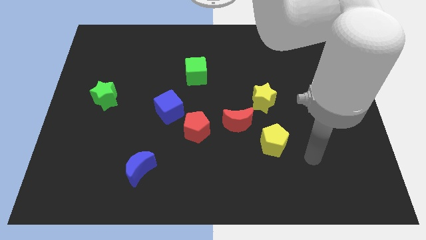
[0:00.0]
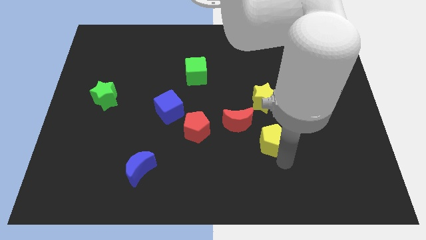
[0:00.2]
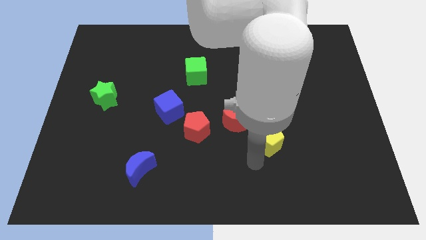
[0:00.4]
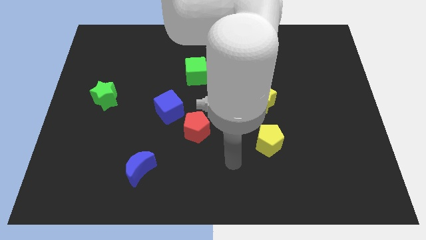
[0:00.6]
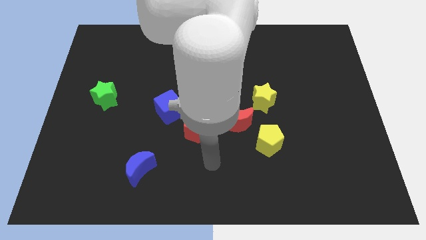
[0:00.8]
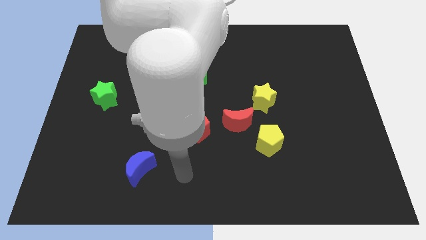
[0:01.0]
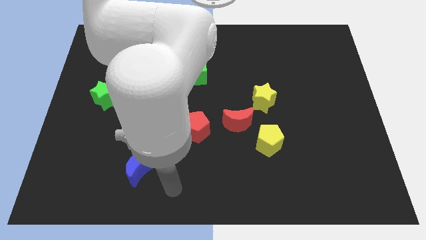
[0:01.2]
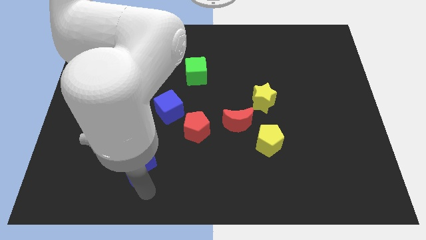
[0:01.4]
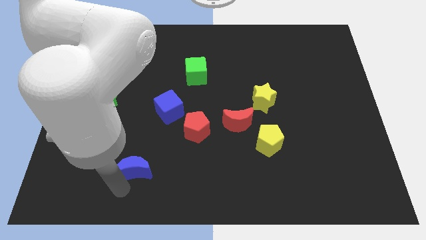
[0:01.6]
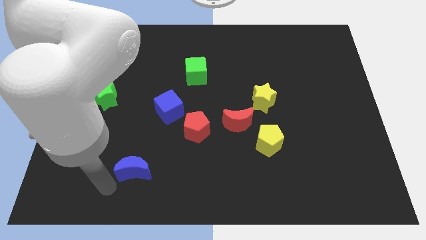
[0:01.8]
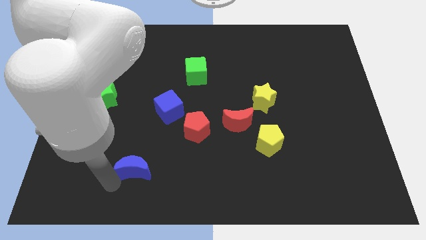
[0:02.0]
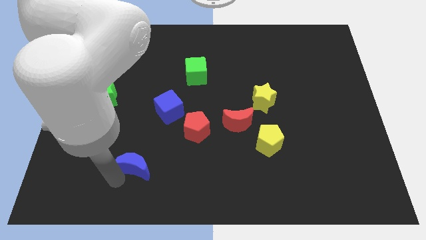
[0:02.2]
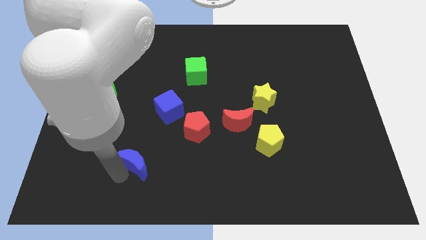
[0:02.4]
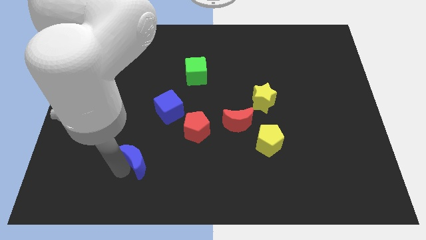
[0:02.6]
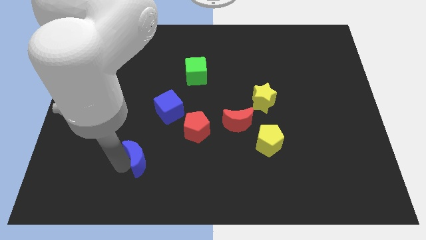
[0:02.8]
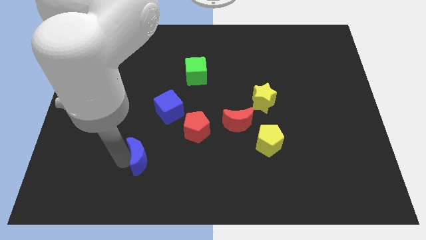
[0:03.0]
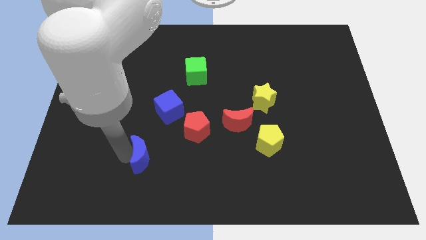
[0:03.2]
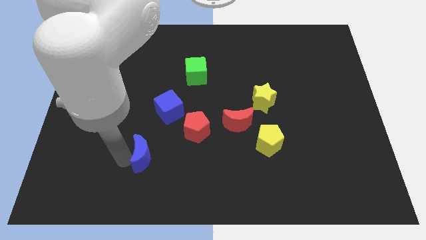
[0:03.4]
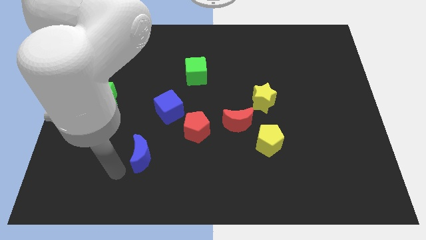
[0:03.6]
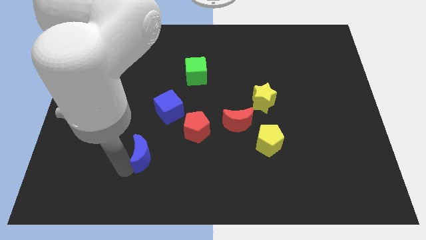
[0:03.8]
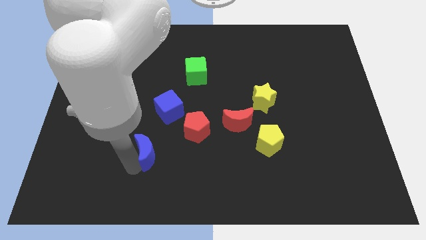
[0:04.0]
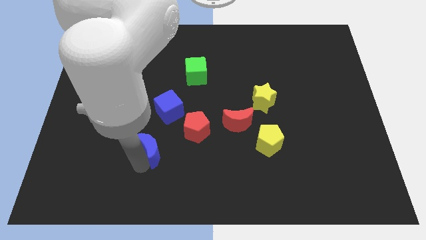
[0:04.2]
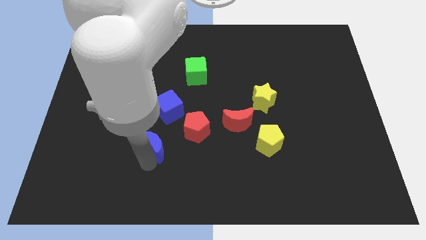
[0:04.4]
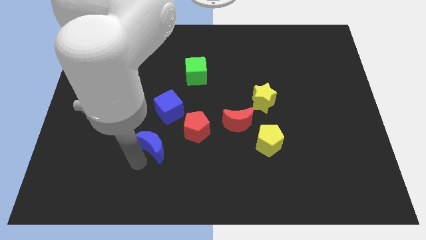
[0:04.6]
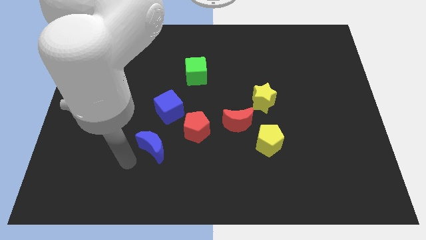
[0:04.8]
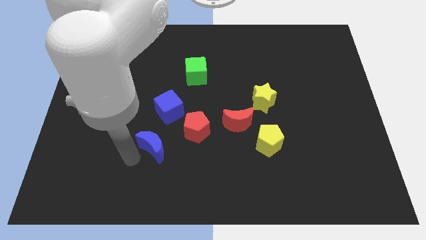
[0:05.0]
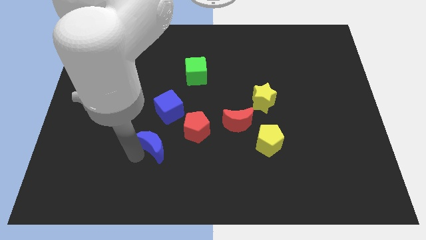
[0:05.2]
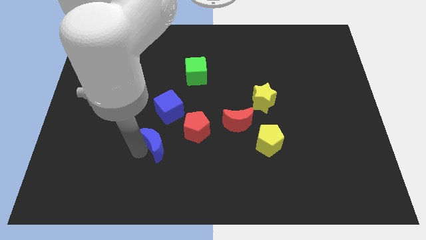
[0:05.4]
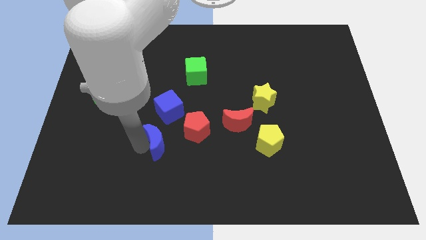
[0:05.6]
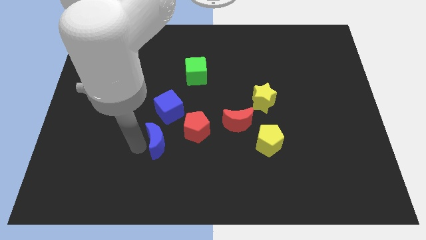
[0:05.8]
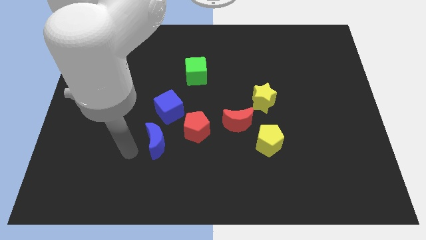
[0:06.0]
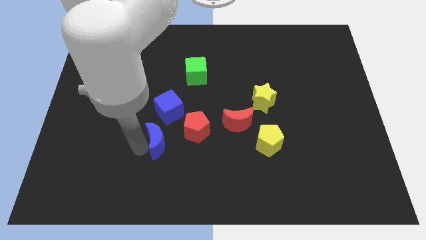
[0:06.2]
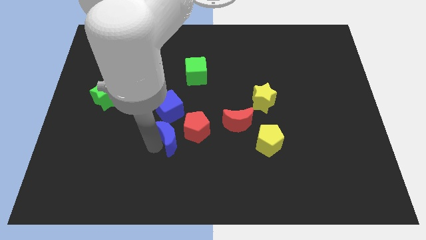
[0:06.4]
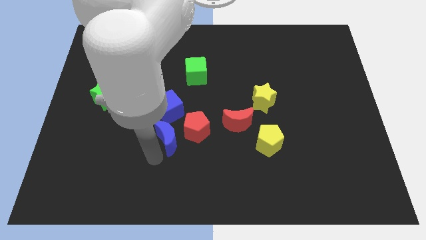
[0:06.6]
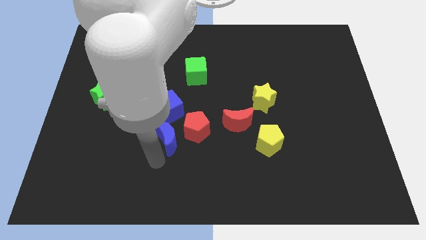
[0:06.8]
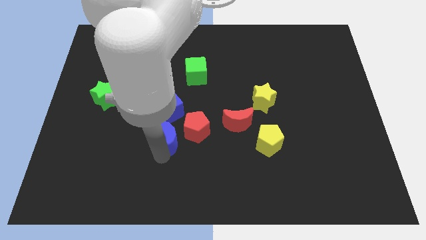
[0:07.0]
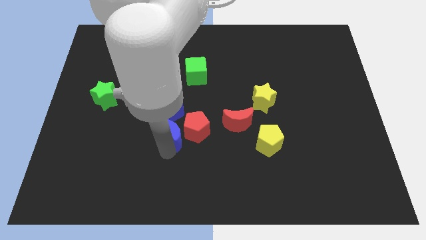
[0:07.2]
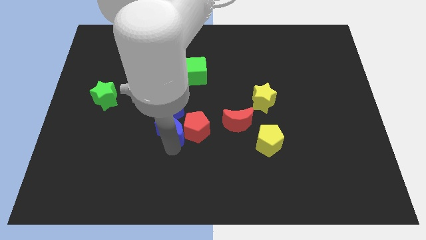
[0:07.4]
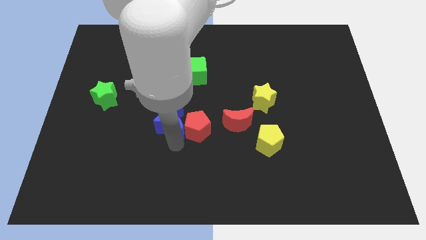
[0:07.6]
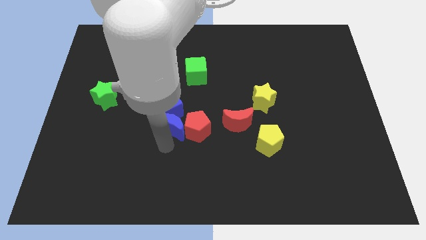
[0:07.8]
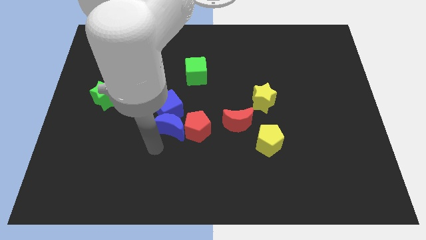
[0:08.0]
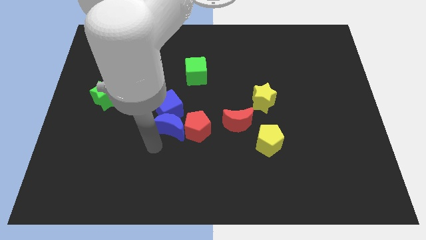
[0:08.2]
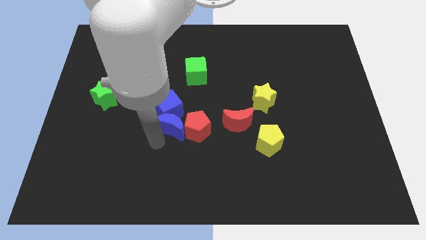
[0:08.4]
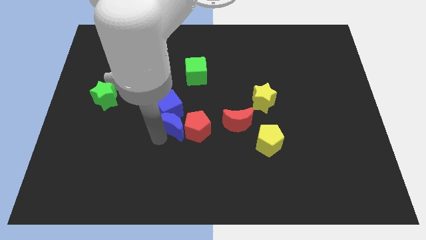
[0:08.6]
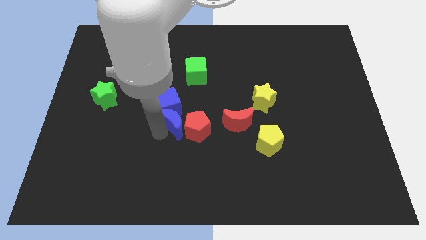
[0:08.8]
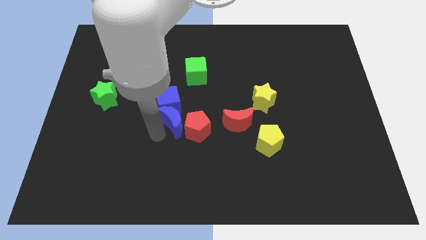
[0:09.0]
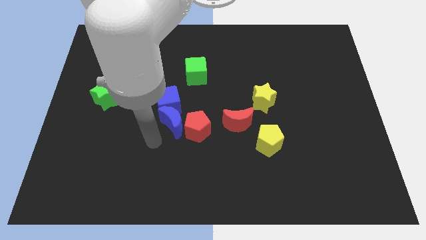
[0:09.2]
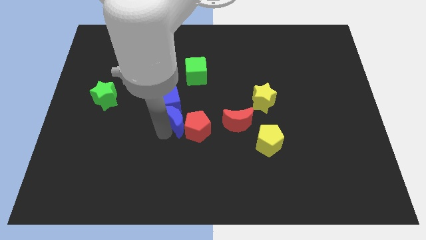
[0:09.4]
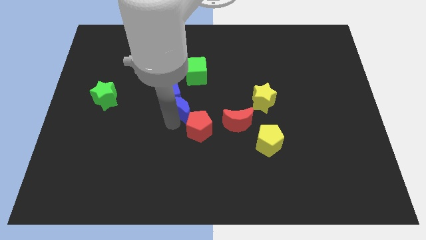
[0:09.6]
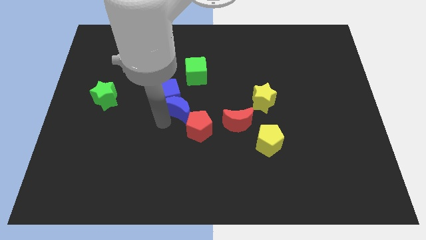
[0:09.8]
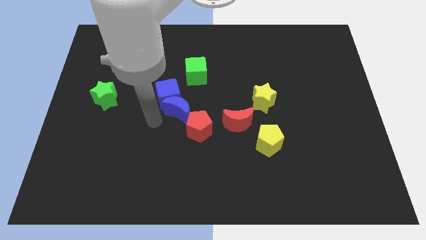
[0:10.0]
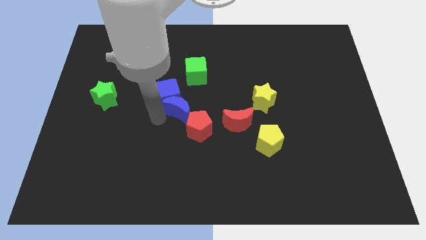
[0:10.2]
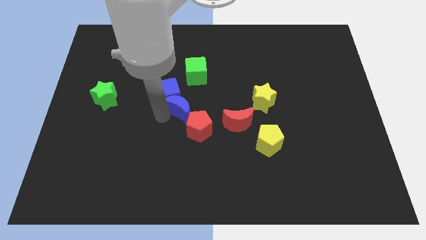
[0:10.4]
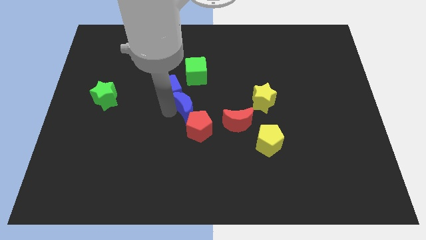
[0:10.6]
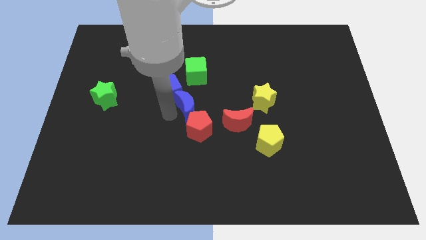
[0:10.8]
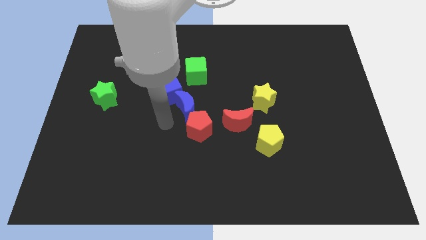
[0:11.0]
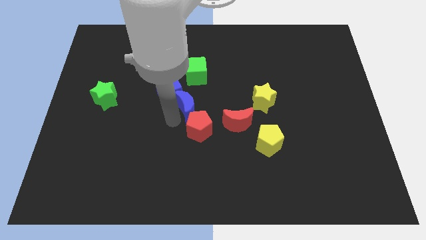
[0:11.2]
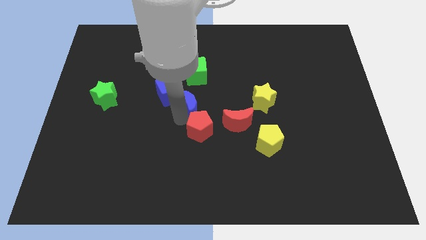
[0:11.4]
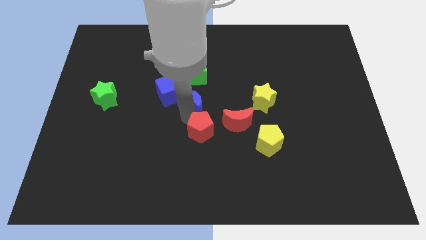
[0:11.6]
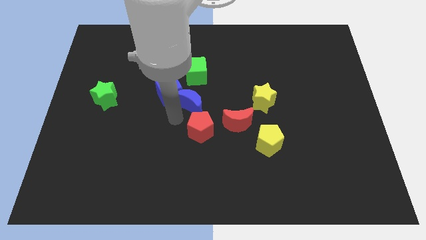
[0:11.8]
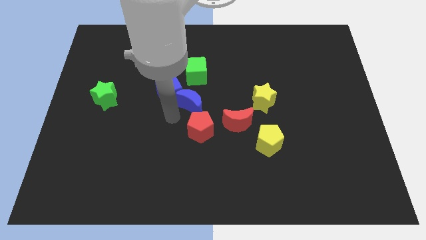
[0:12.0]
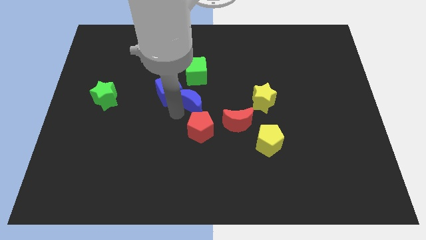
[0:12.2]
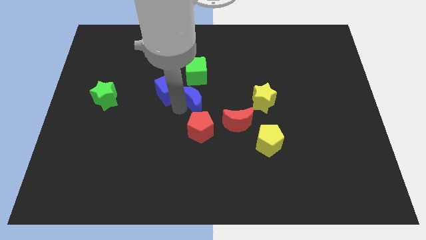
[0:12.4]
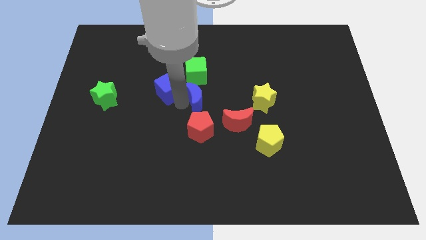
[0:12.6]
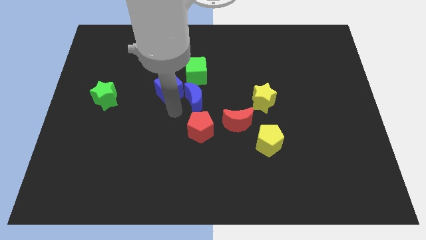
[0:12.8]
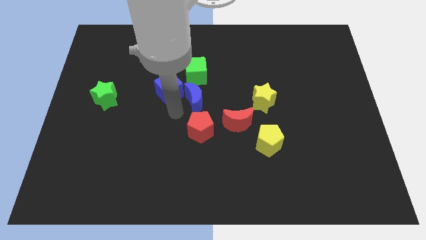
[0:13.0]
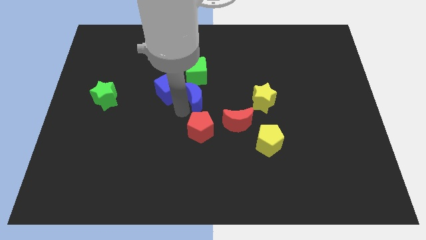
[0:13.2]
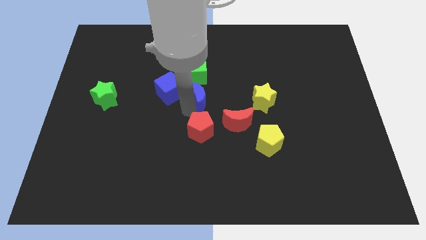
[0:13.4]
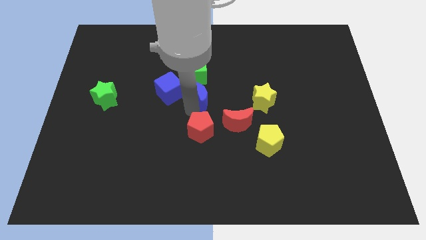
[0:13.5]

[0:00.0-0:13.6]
move the blue moon to the bottom right side of the green cube

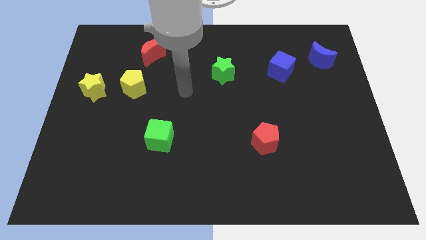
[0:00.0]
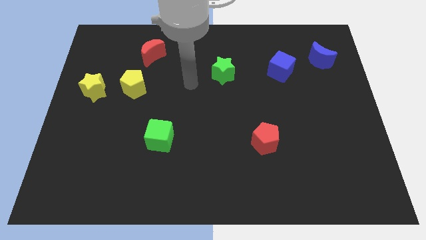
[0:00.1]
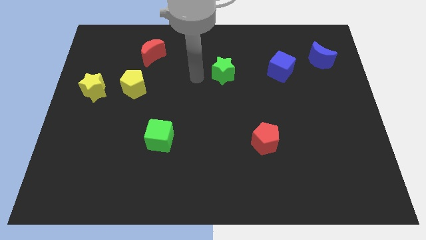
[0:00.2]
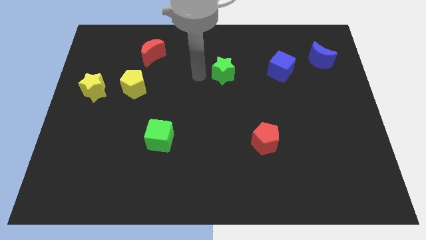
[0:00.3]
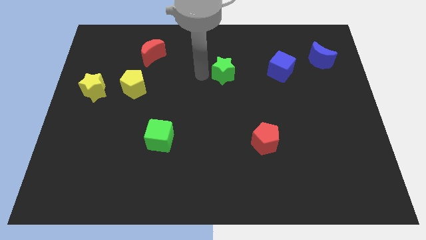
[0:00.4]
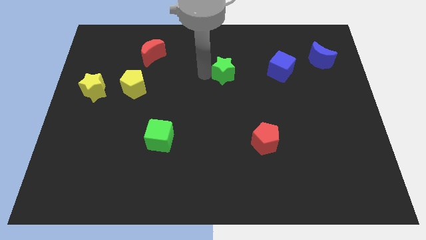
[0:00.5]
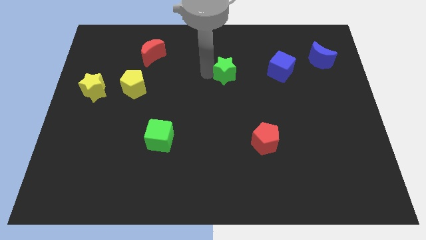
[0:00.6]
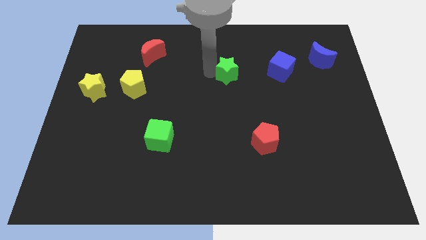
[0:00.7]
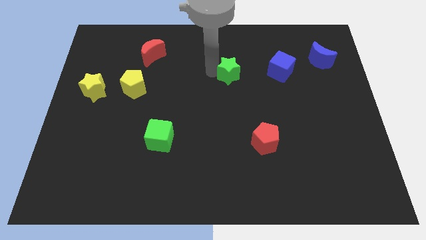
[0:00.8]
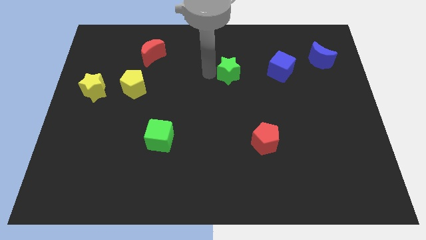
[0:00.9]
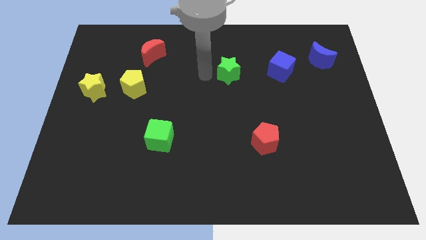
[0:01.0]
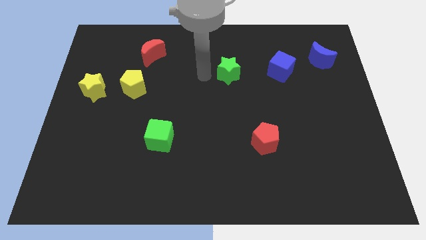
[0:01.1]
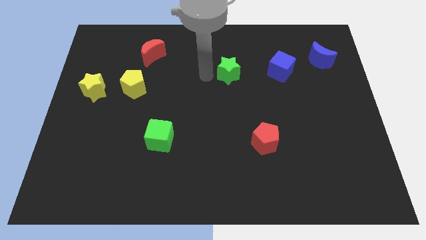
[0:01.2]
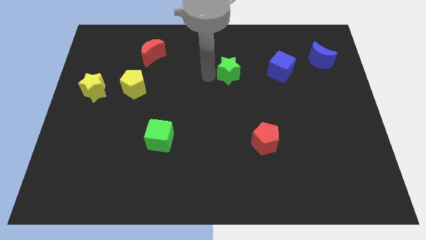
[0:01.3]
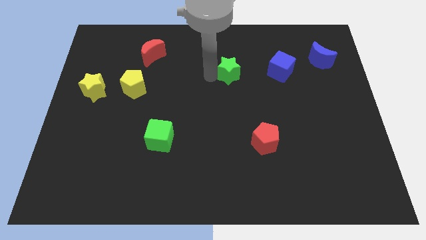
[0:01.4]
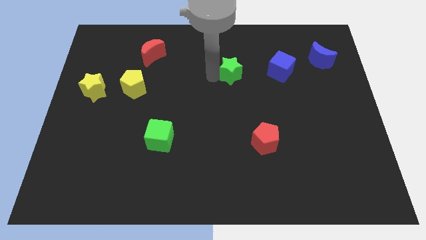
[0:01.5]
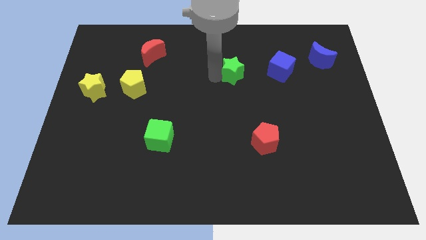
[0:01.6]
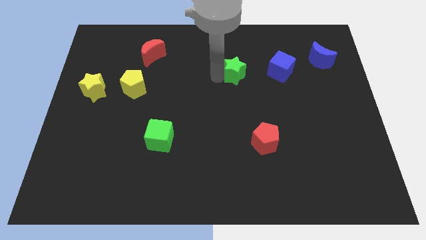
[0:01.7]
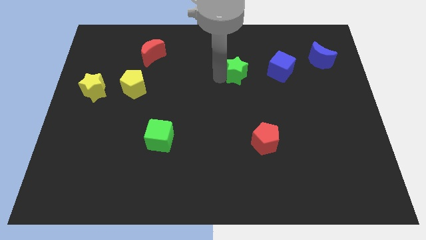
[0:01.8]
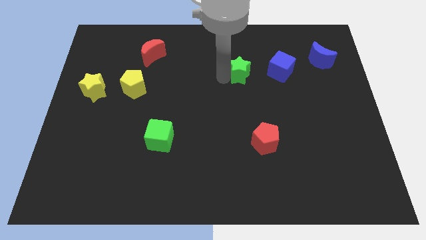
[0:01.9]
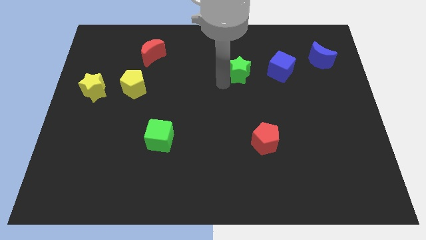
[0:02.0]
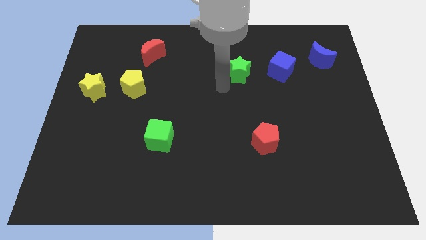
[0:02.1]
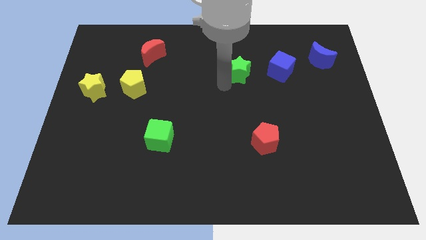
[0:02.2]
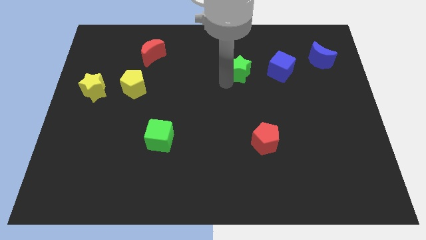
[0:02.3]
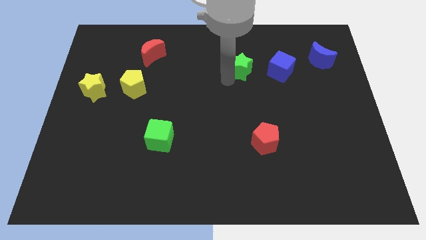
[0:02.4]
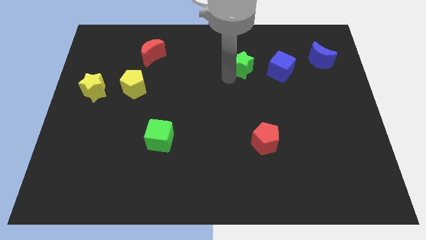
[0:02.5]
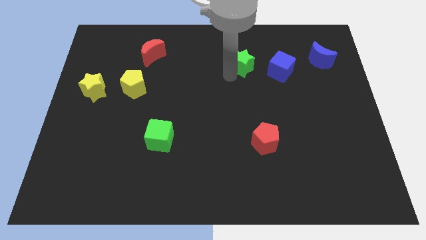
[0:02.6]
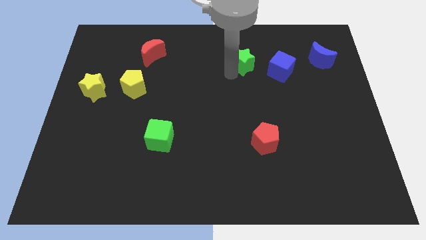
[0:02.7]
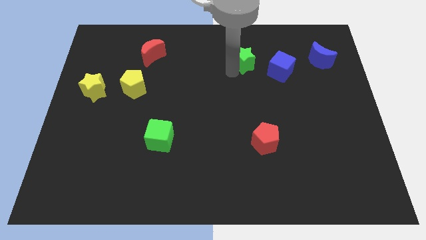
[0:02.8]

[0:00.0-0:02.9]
put the green star to the top left of the blue cube
